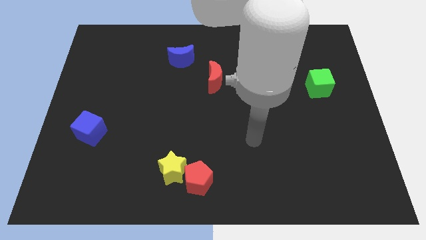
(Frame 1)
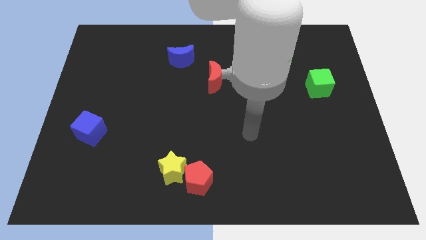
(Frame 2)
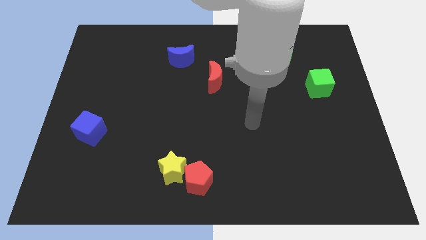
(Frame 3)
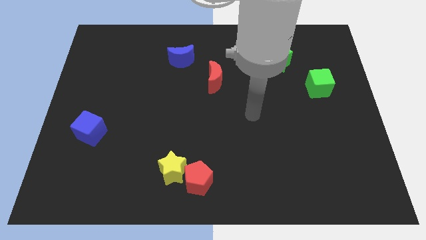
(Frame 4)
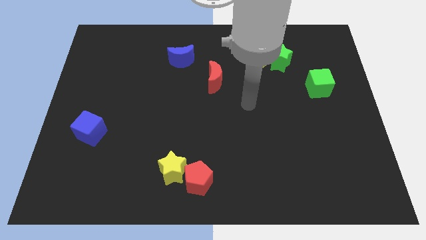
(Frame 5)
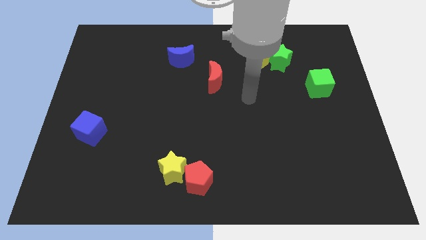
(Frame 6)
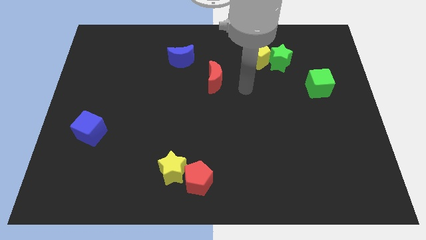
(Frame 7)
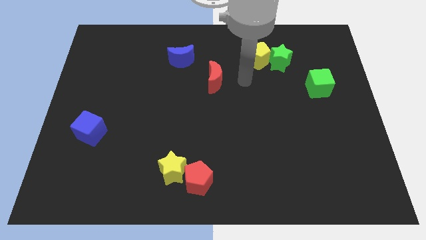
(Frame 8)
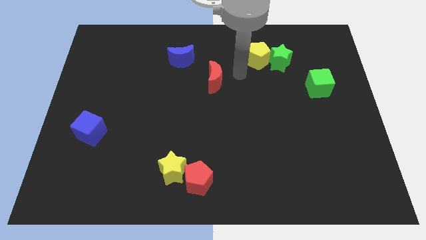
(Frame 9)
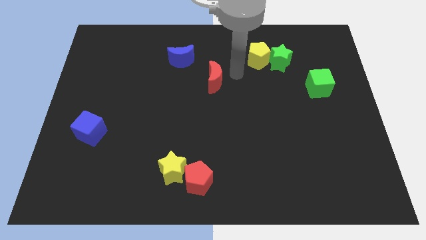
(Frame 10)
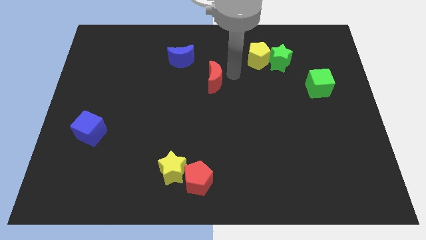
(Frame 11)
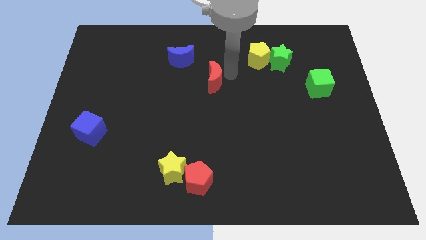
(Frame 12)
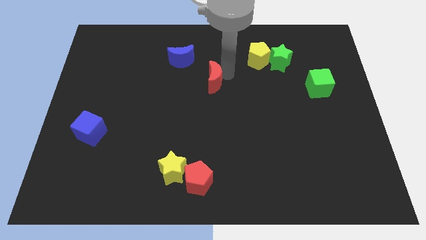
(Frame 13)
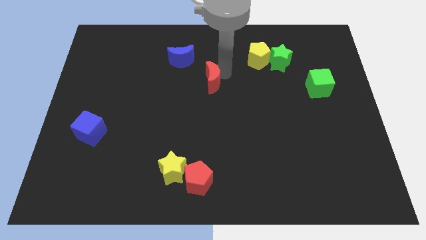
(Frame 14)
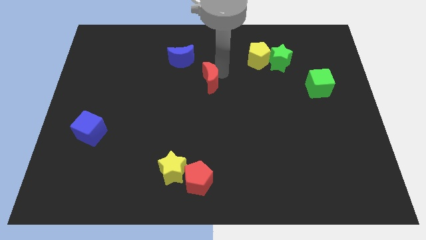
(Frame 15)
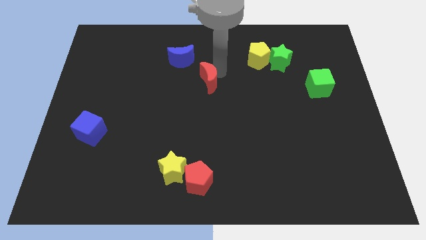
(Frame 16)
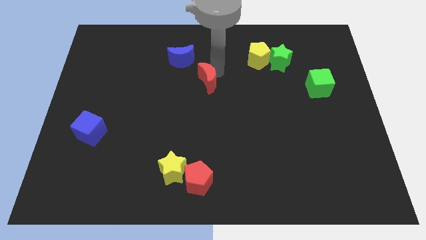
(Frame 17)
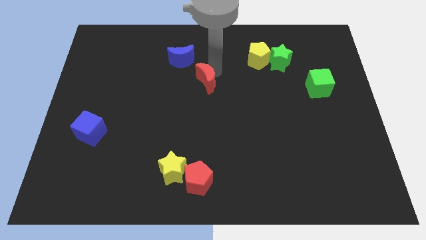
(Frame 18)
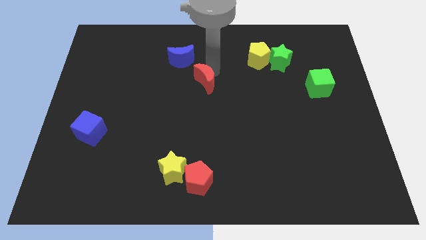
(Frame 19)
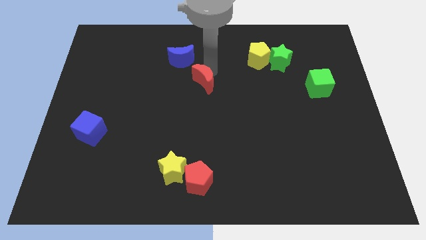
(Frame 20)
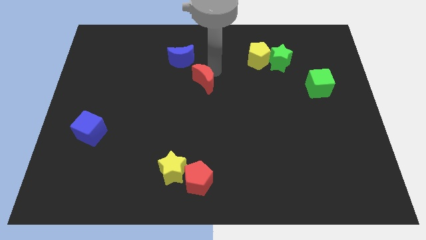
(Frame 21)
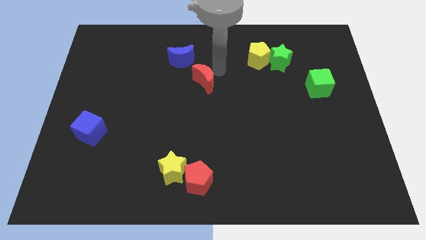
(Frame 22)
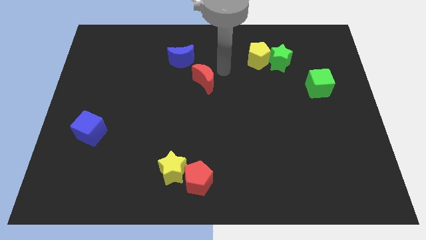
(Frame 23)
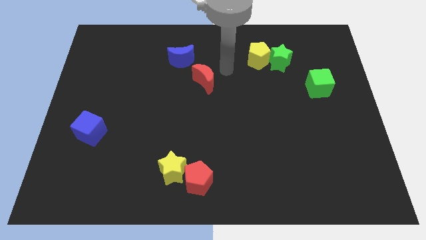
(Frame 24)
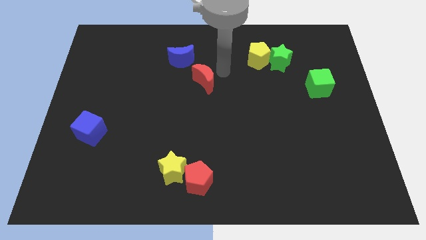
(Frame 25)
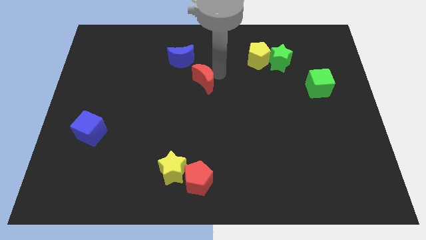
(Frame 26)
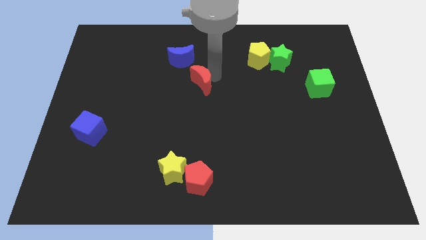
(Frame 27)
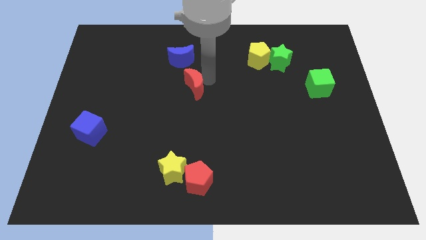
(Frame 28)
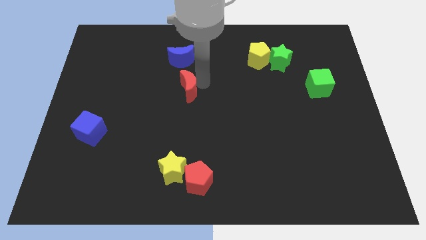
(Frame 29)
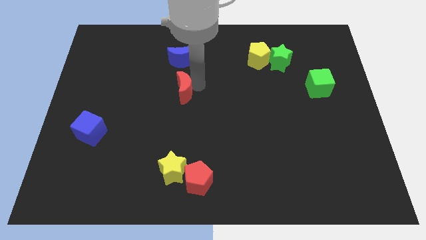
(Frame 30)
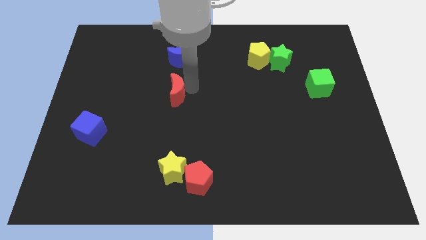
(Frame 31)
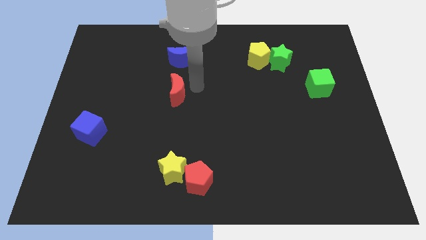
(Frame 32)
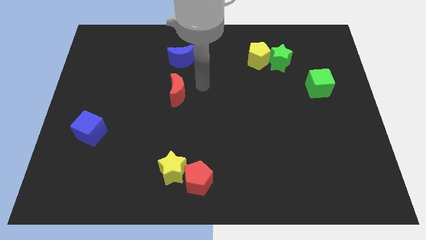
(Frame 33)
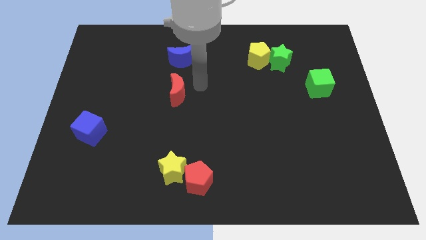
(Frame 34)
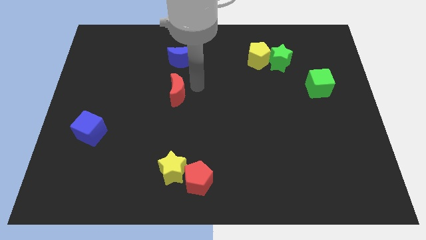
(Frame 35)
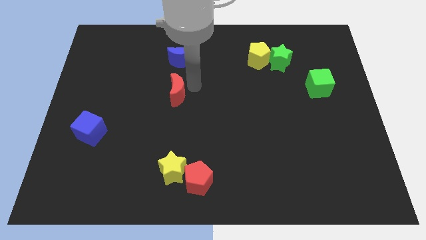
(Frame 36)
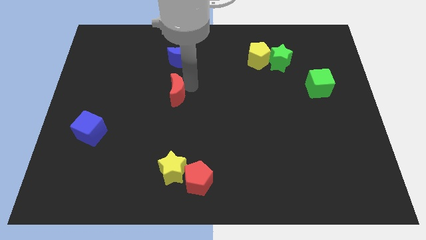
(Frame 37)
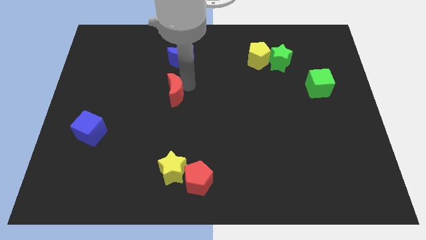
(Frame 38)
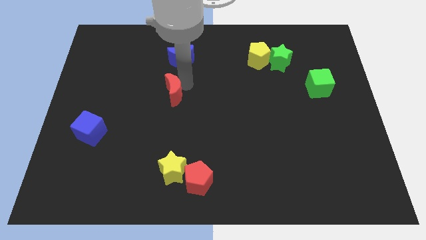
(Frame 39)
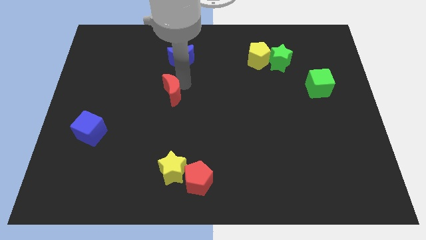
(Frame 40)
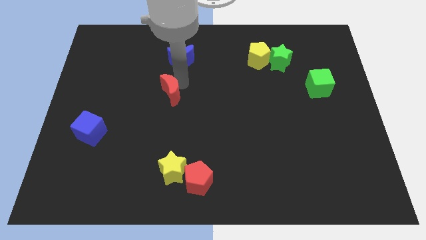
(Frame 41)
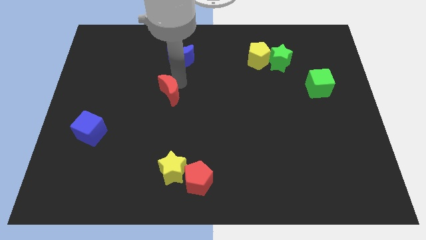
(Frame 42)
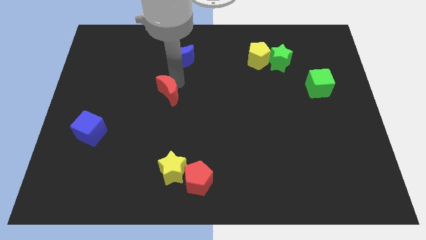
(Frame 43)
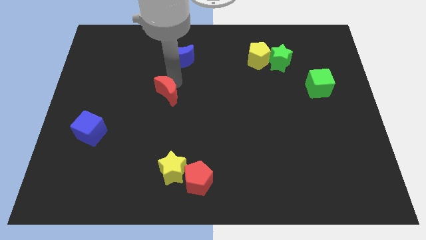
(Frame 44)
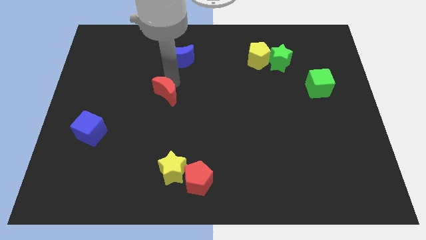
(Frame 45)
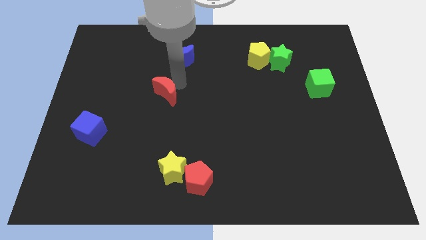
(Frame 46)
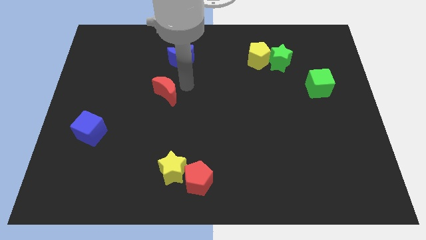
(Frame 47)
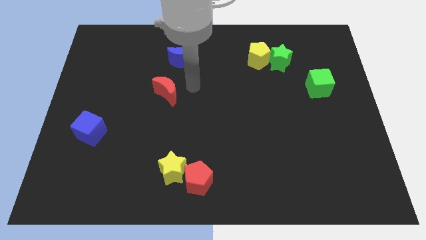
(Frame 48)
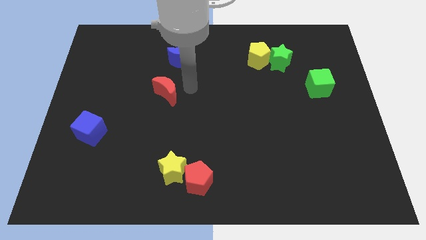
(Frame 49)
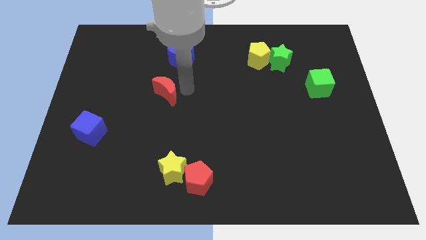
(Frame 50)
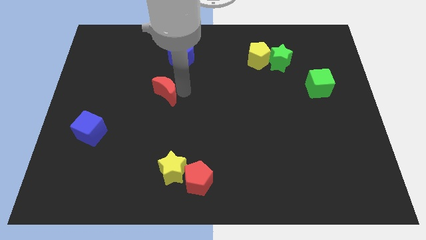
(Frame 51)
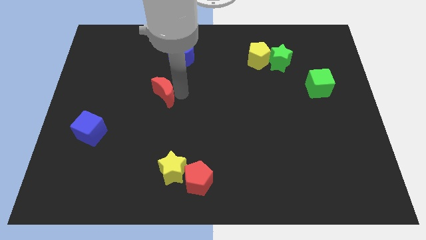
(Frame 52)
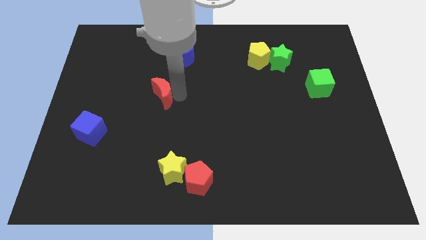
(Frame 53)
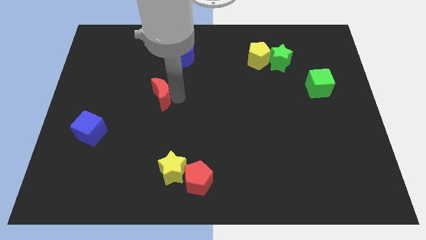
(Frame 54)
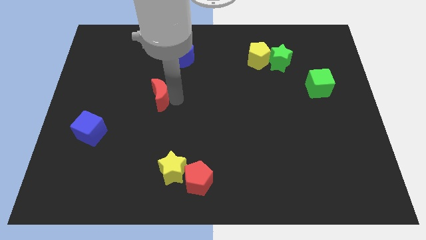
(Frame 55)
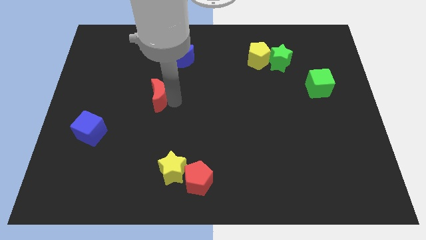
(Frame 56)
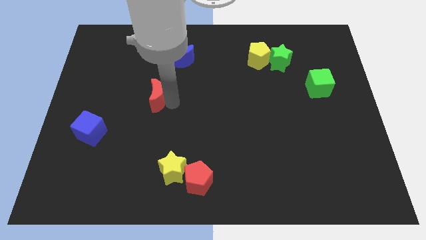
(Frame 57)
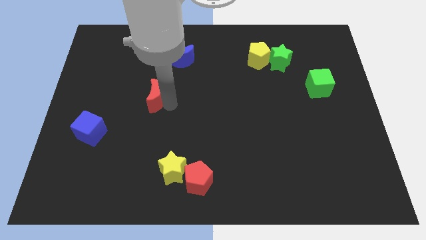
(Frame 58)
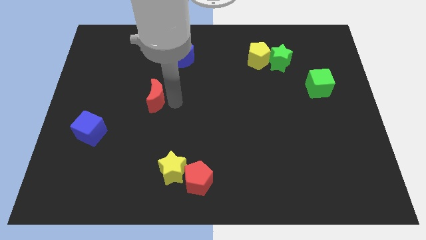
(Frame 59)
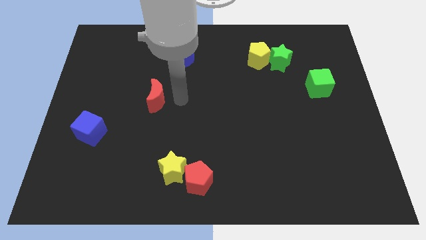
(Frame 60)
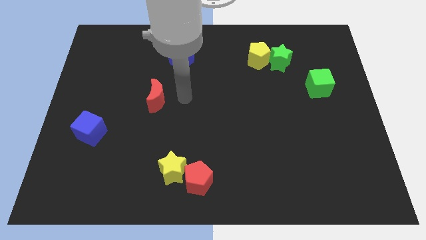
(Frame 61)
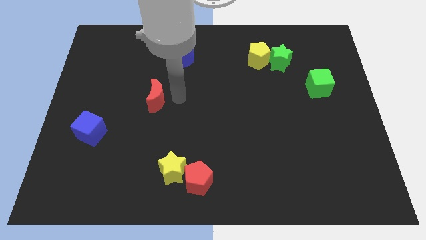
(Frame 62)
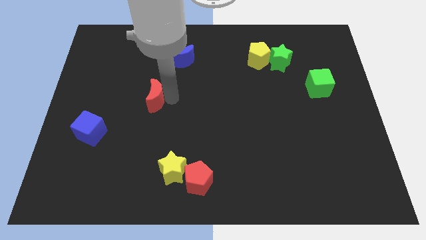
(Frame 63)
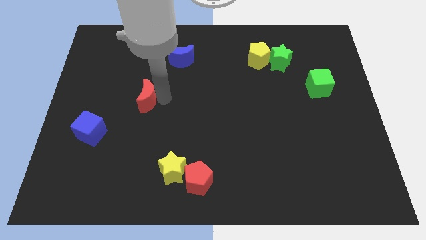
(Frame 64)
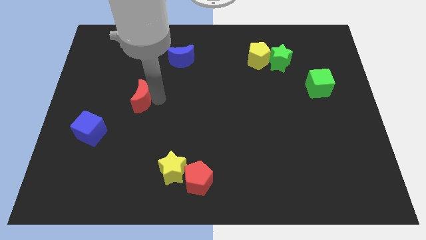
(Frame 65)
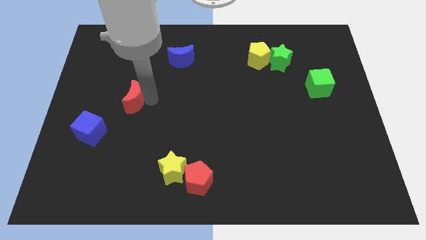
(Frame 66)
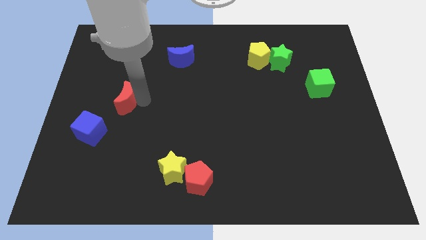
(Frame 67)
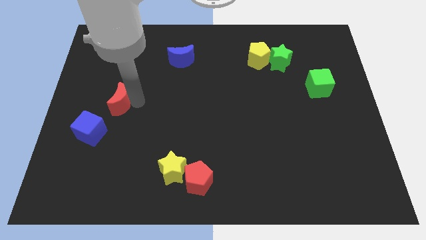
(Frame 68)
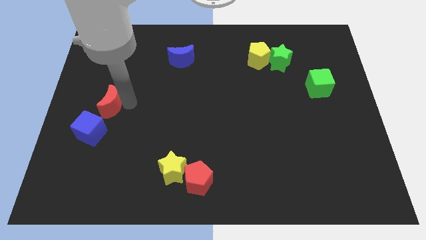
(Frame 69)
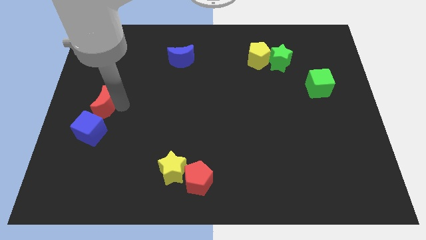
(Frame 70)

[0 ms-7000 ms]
move the red moon to the left side
